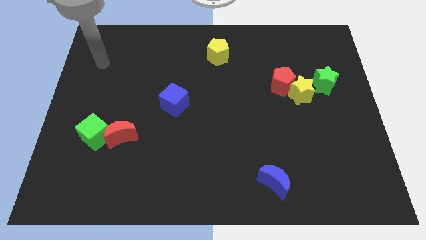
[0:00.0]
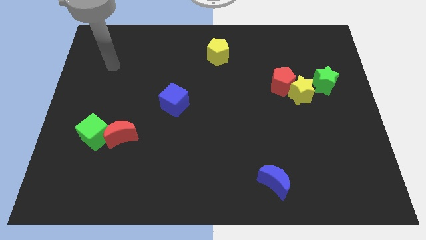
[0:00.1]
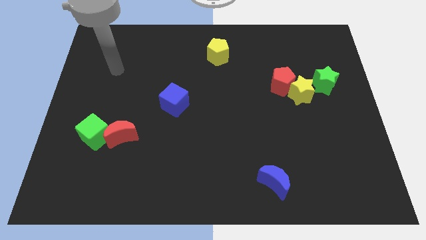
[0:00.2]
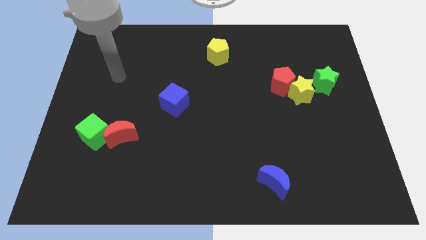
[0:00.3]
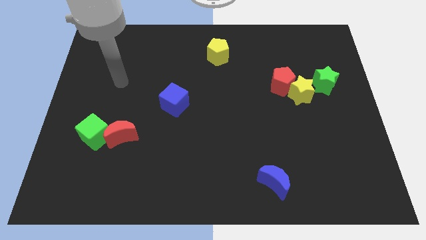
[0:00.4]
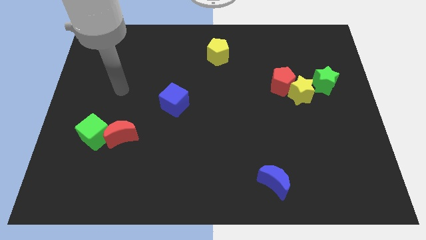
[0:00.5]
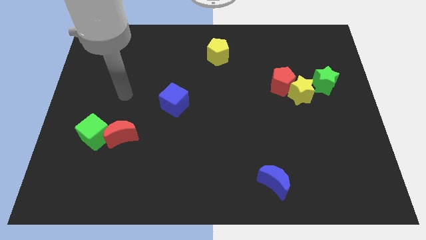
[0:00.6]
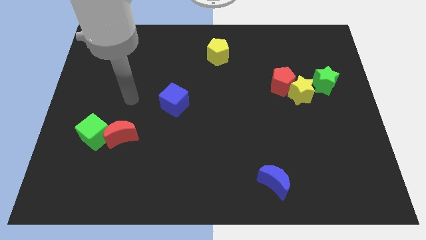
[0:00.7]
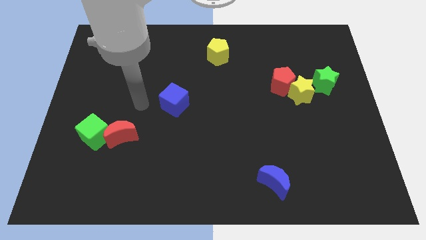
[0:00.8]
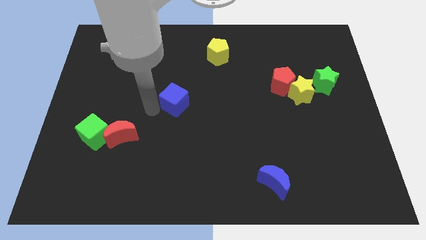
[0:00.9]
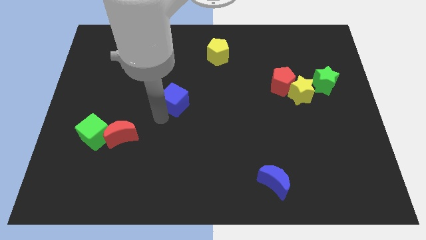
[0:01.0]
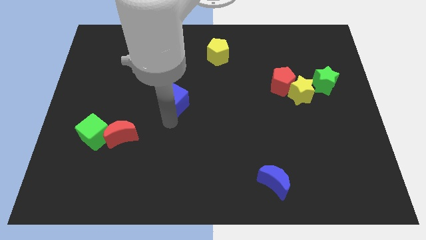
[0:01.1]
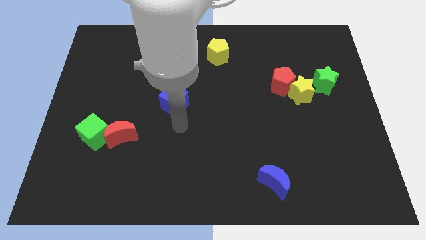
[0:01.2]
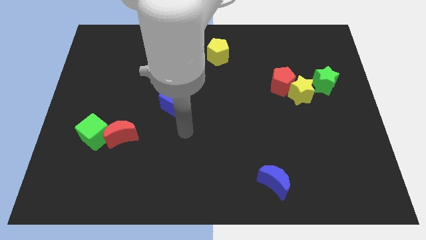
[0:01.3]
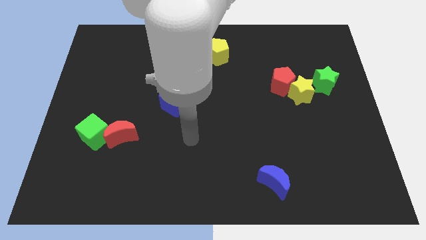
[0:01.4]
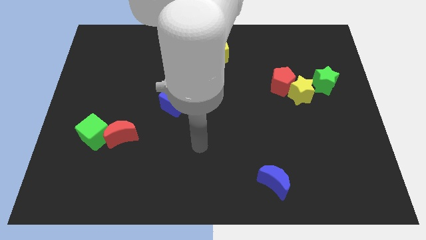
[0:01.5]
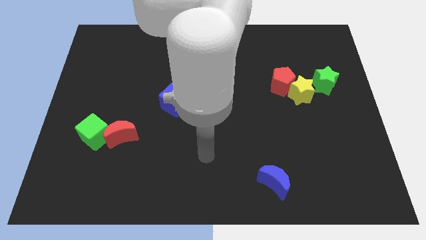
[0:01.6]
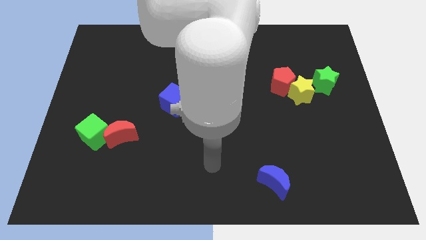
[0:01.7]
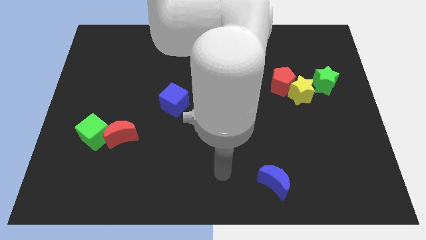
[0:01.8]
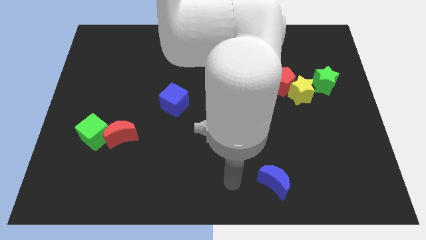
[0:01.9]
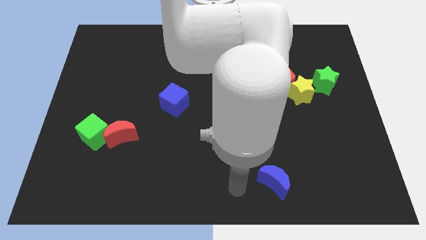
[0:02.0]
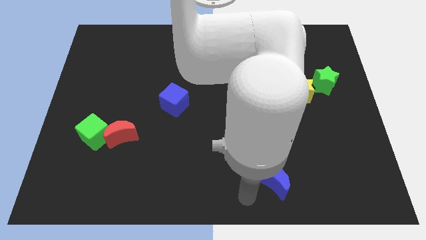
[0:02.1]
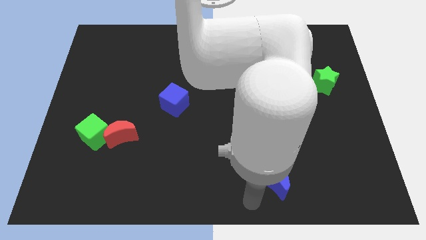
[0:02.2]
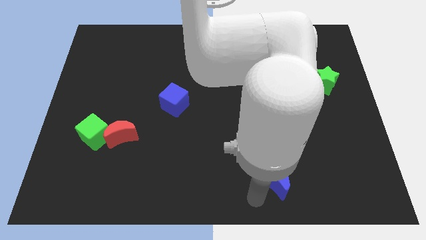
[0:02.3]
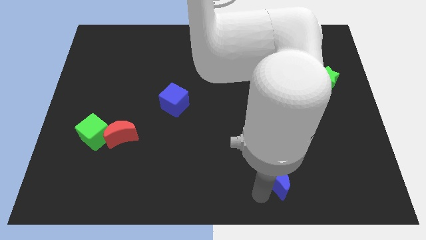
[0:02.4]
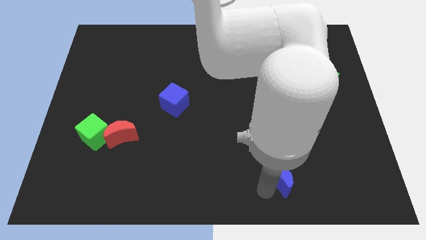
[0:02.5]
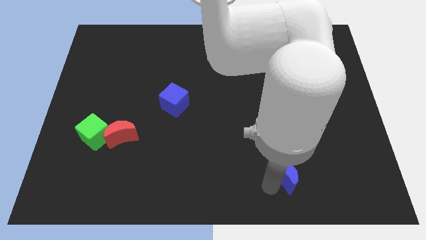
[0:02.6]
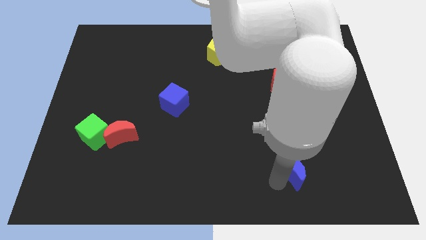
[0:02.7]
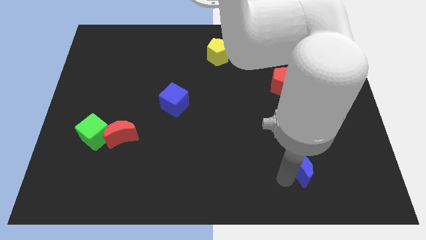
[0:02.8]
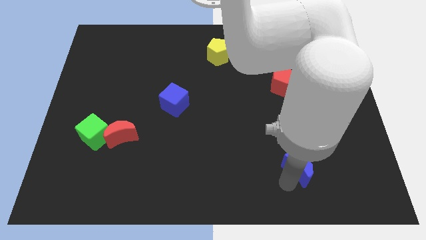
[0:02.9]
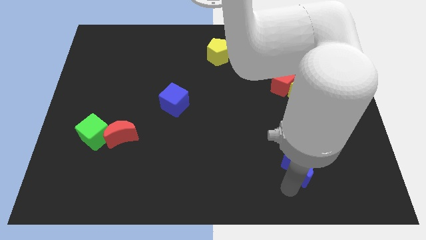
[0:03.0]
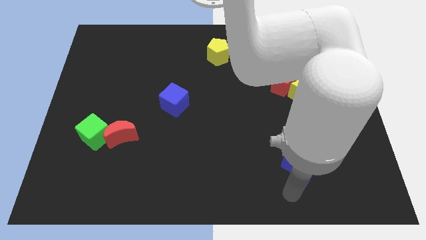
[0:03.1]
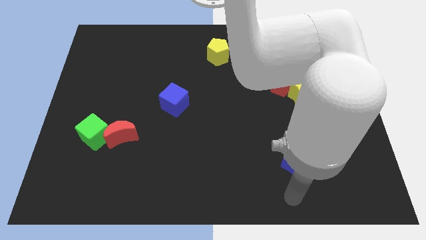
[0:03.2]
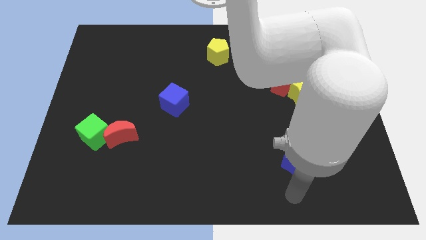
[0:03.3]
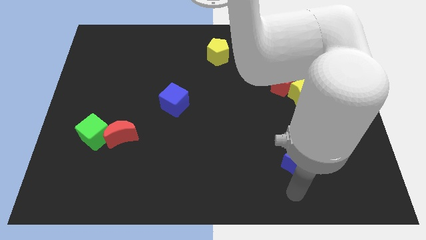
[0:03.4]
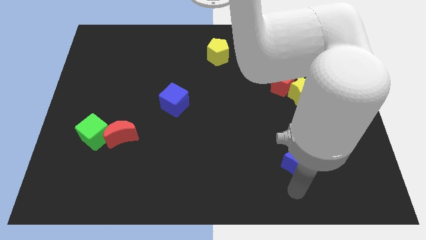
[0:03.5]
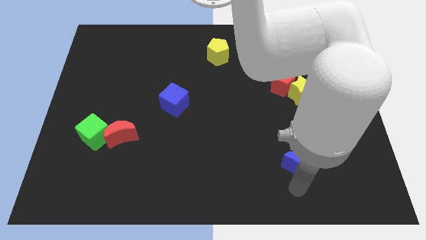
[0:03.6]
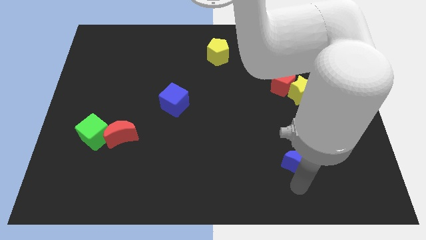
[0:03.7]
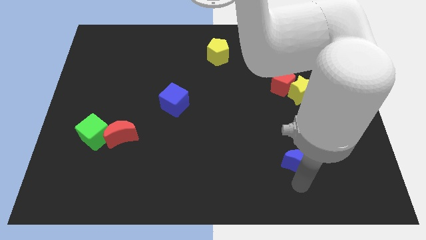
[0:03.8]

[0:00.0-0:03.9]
move the blue moon upwards and right a little bit

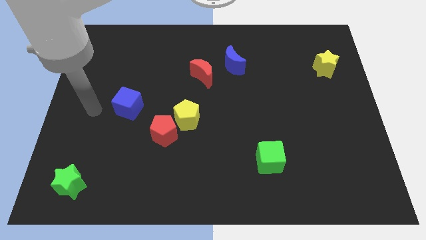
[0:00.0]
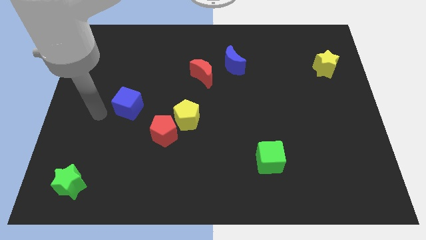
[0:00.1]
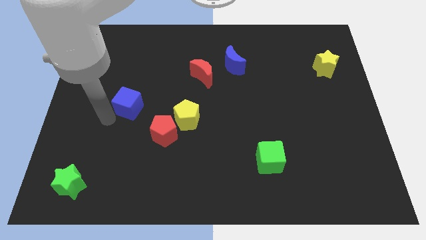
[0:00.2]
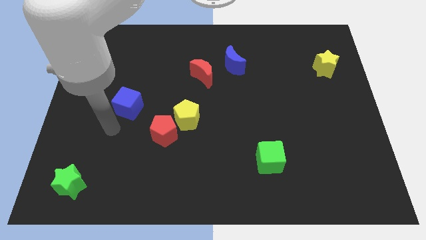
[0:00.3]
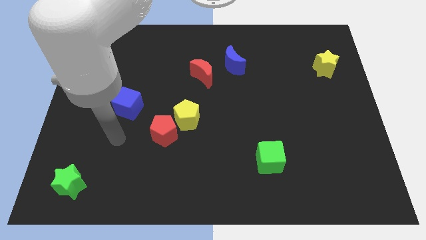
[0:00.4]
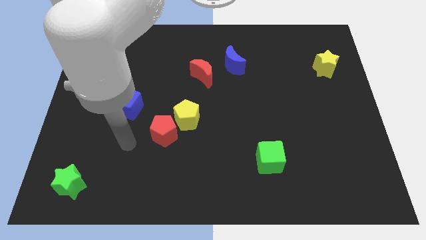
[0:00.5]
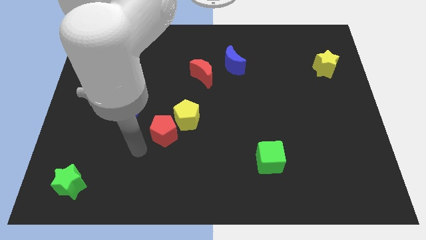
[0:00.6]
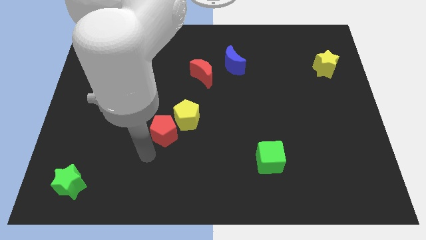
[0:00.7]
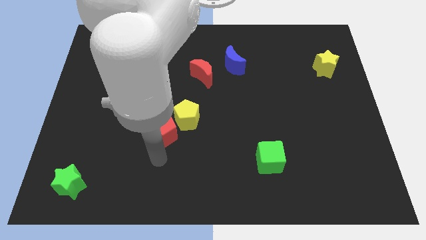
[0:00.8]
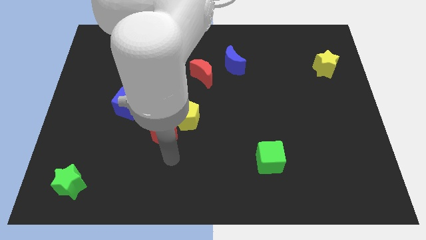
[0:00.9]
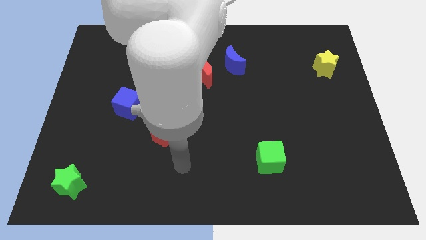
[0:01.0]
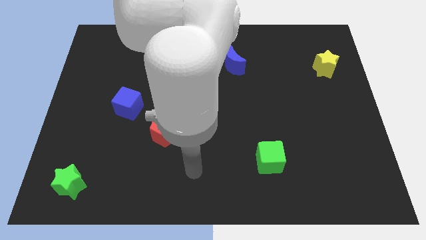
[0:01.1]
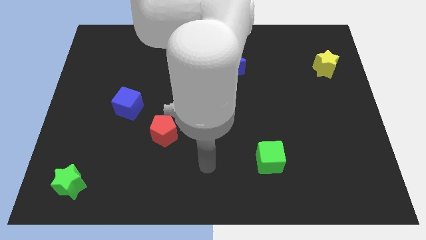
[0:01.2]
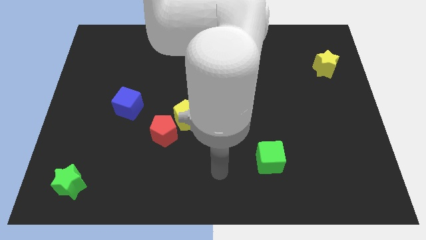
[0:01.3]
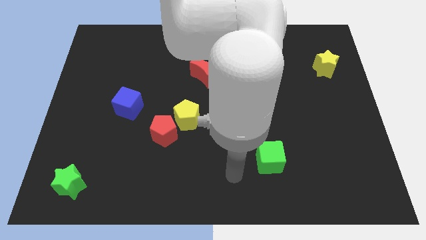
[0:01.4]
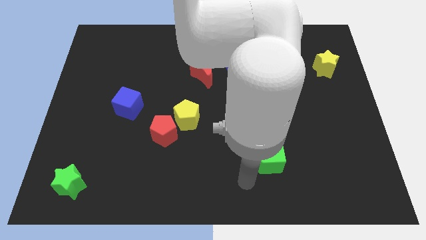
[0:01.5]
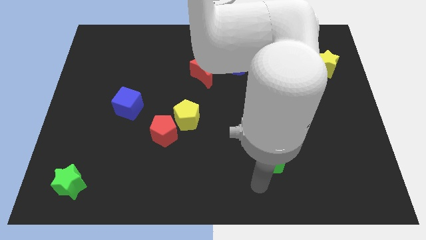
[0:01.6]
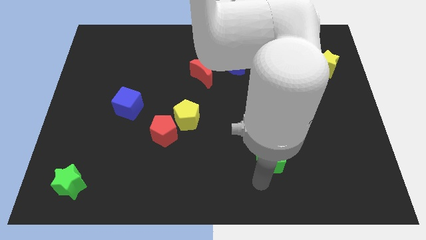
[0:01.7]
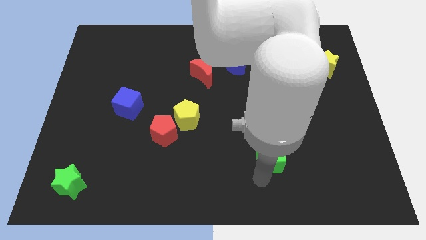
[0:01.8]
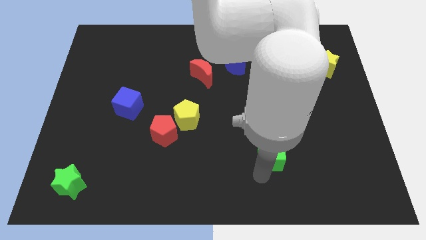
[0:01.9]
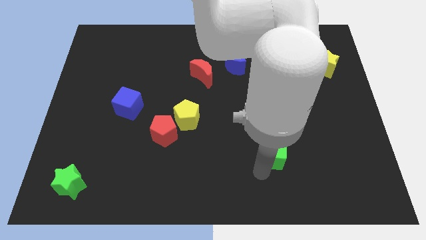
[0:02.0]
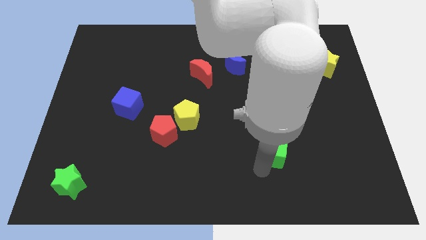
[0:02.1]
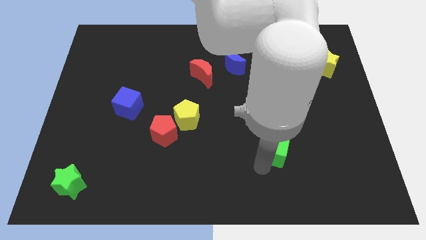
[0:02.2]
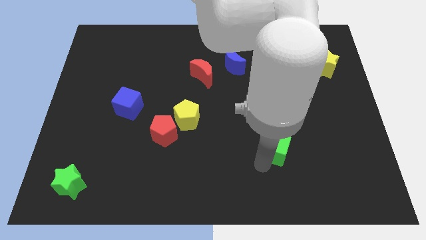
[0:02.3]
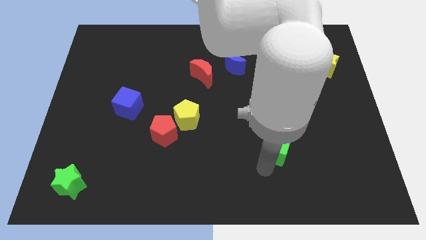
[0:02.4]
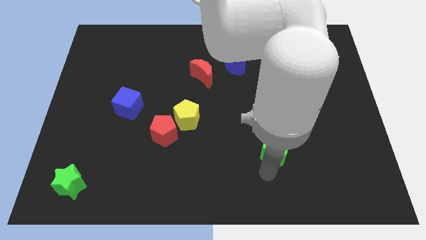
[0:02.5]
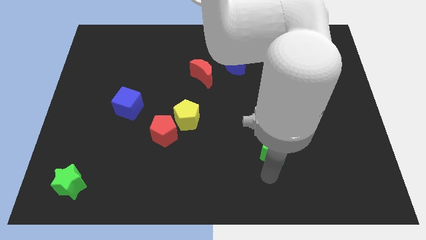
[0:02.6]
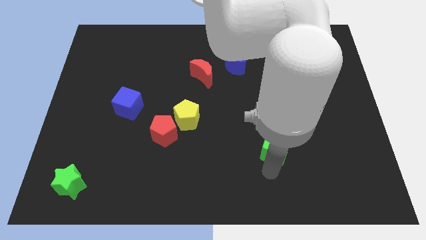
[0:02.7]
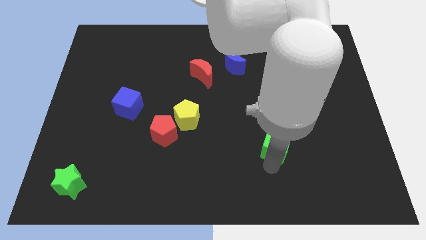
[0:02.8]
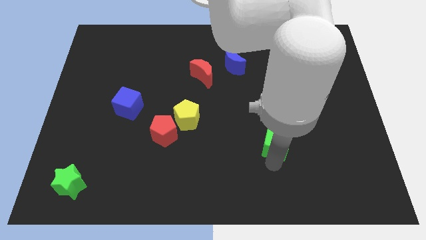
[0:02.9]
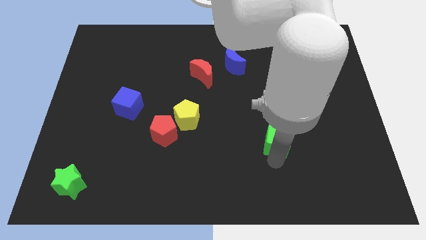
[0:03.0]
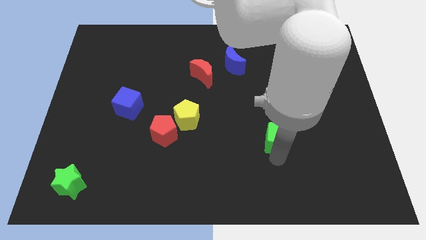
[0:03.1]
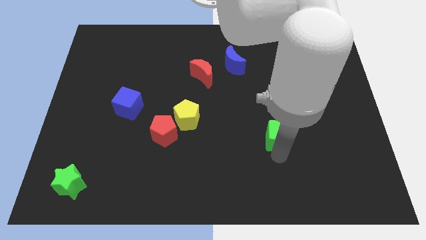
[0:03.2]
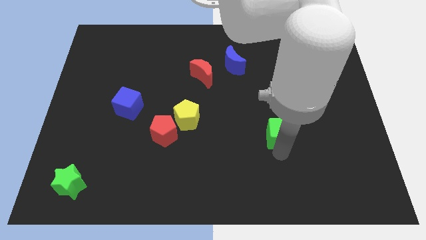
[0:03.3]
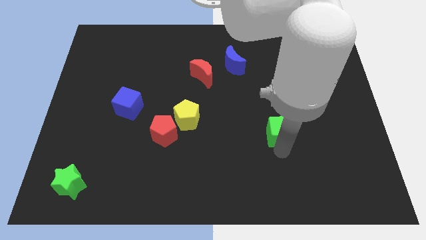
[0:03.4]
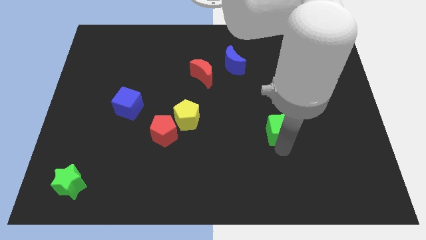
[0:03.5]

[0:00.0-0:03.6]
push the green cube upwards slightly

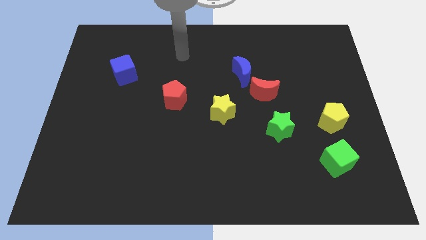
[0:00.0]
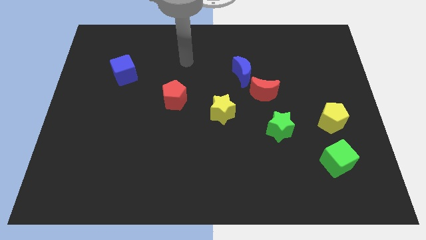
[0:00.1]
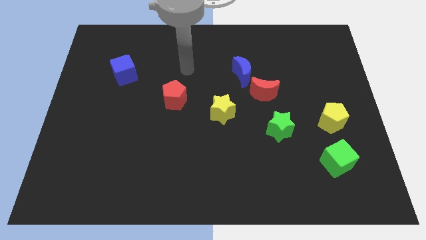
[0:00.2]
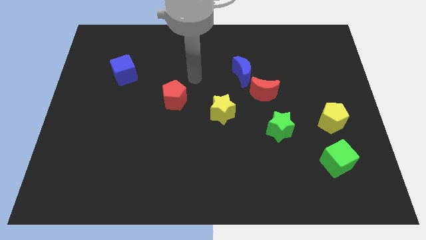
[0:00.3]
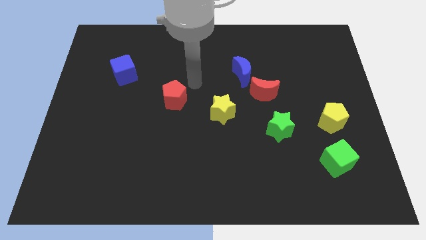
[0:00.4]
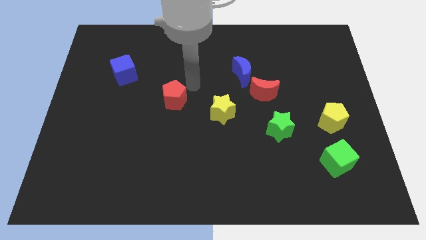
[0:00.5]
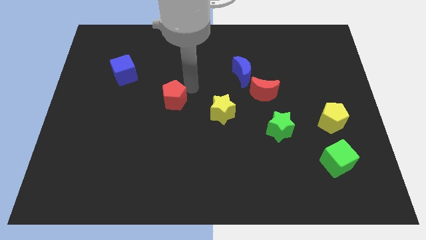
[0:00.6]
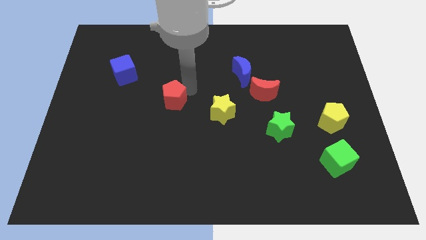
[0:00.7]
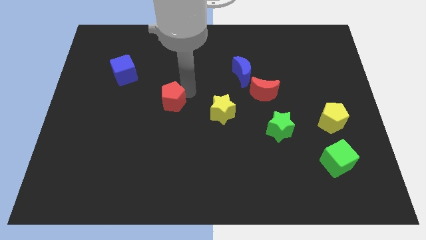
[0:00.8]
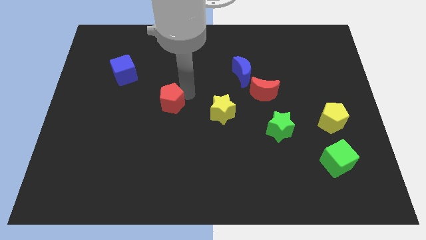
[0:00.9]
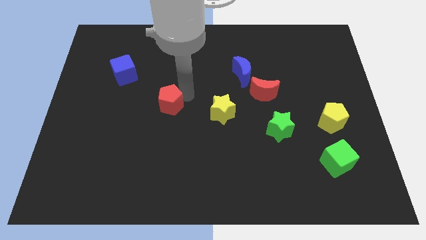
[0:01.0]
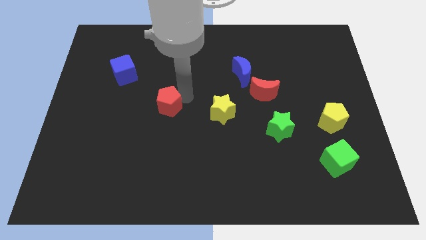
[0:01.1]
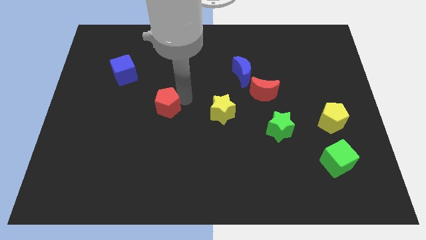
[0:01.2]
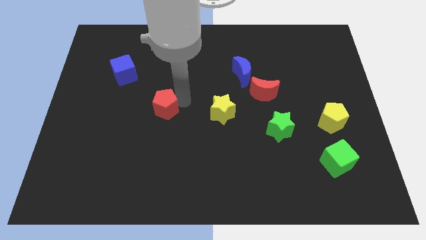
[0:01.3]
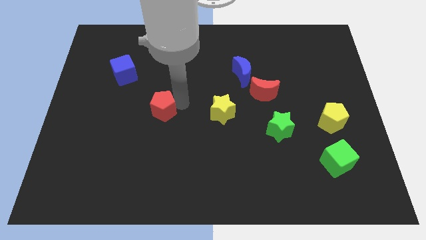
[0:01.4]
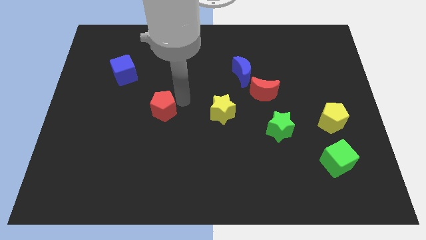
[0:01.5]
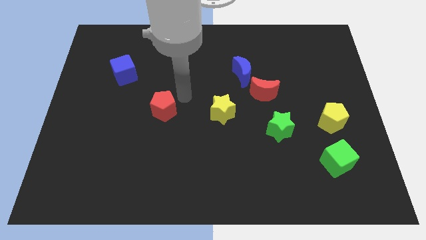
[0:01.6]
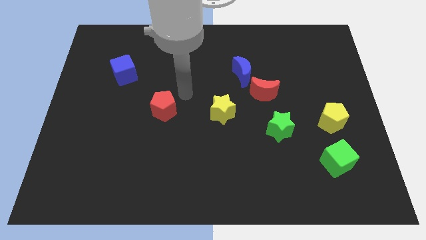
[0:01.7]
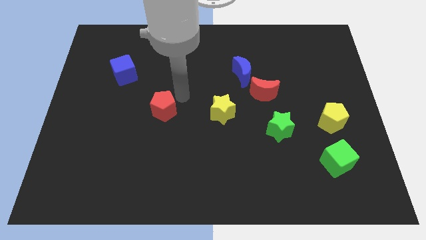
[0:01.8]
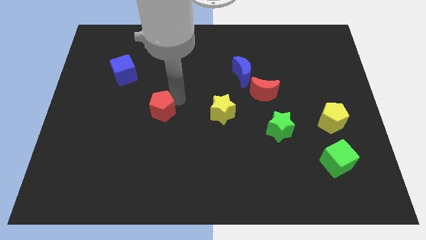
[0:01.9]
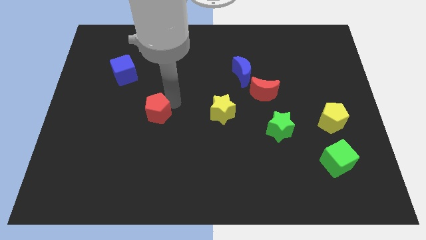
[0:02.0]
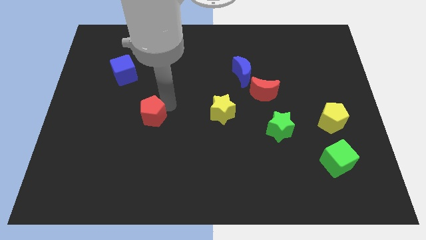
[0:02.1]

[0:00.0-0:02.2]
slightly push the red pentagon down and then to the left
